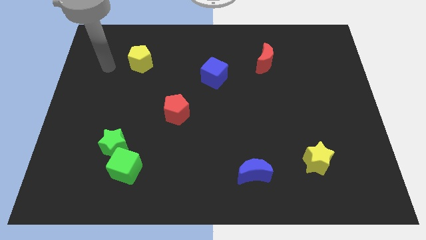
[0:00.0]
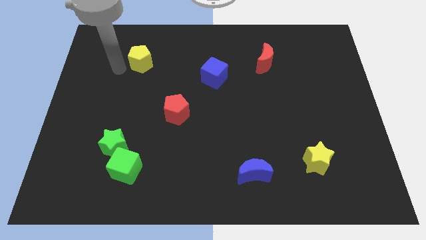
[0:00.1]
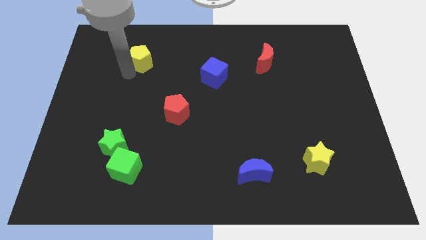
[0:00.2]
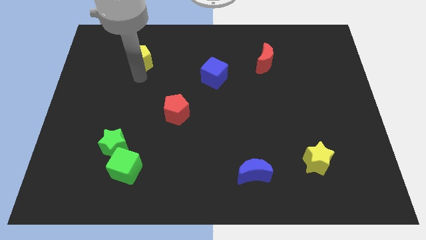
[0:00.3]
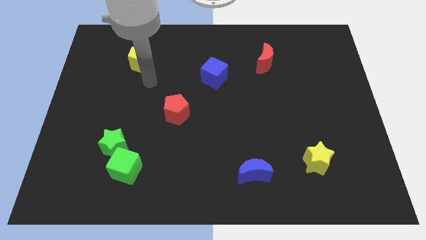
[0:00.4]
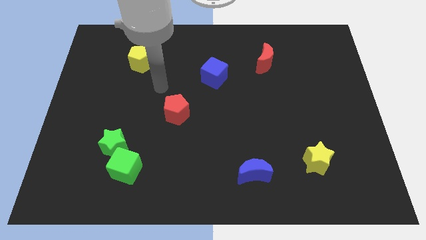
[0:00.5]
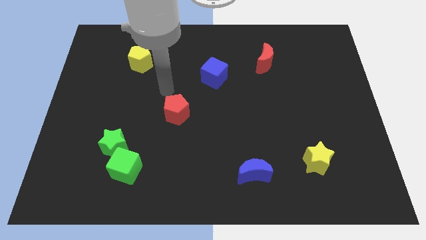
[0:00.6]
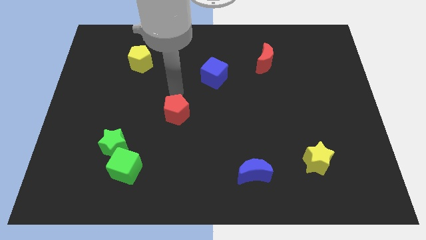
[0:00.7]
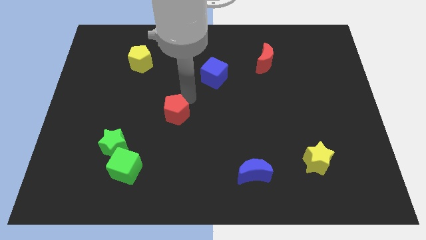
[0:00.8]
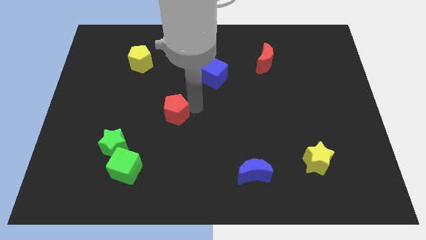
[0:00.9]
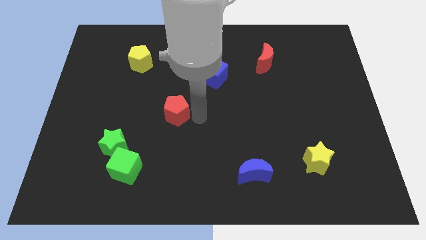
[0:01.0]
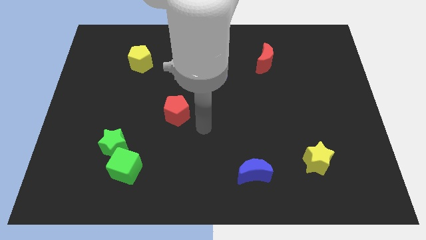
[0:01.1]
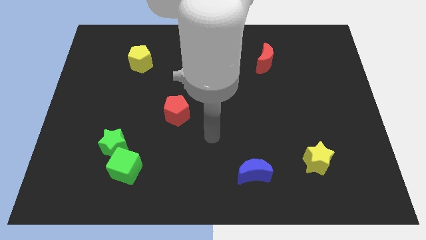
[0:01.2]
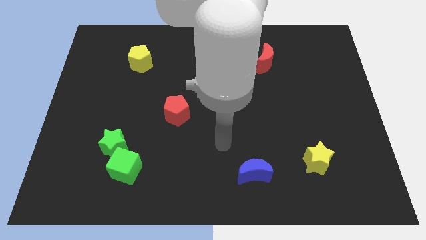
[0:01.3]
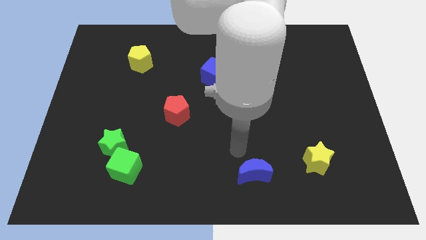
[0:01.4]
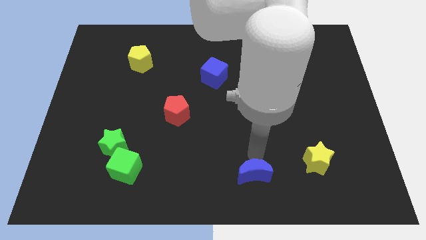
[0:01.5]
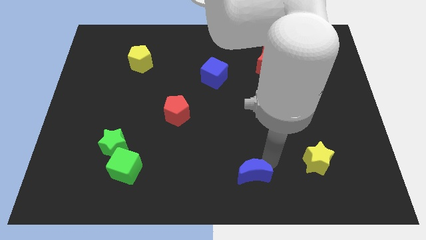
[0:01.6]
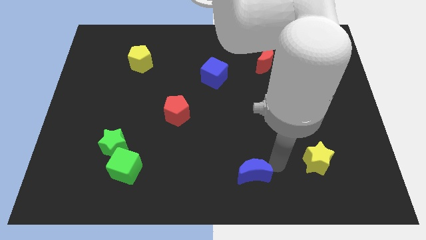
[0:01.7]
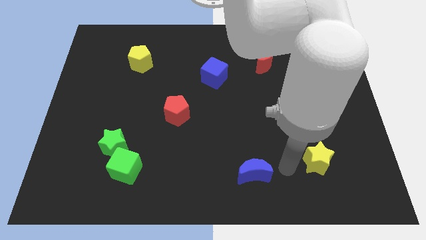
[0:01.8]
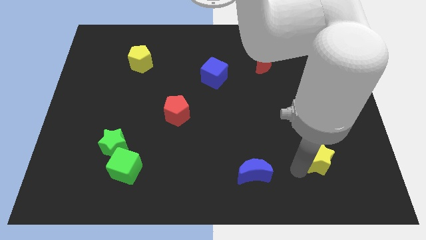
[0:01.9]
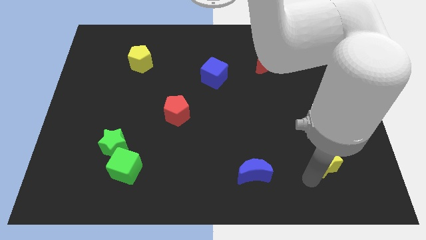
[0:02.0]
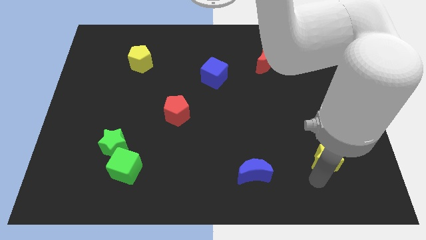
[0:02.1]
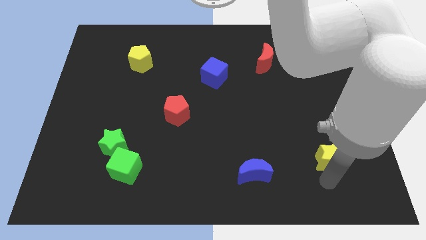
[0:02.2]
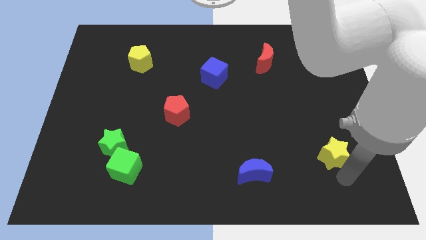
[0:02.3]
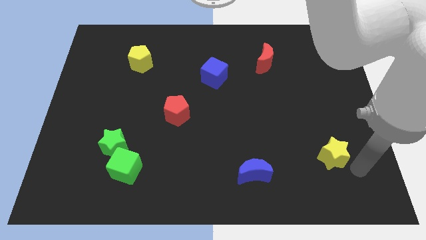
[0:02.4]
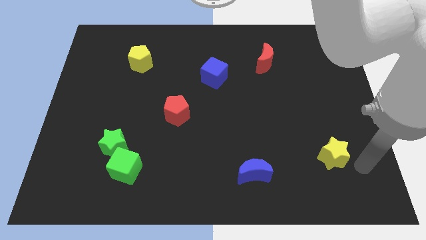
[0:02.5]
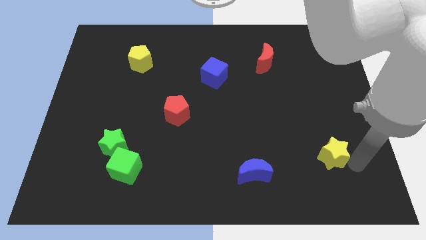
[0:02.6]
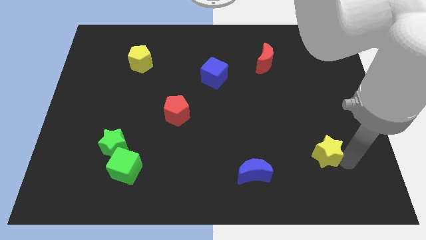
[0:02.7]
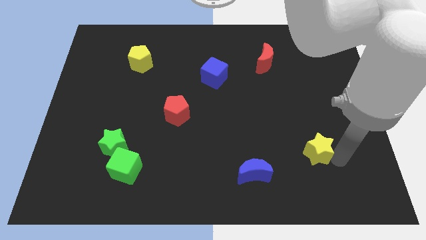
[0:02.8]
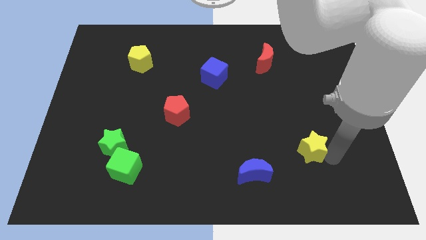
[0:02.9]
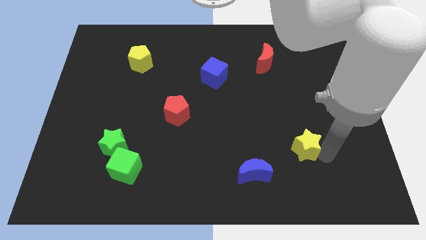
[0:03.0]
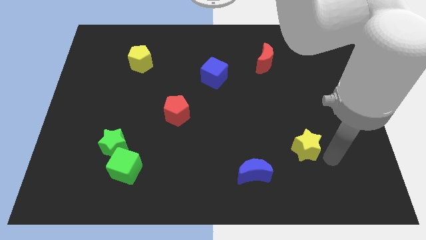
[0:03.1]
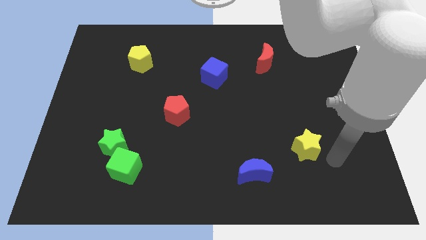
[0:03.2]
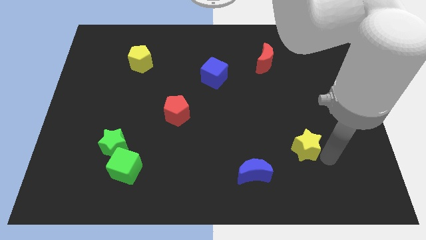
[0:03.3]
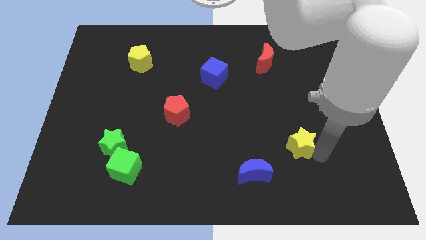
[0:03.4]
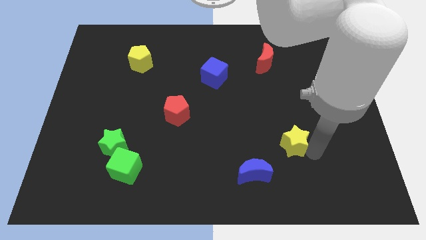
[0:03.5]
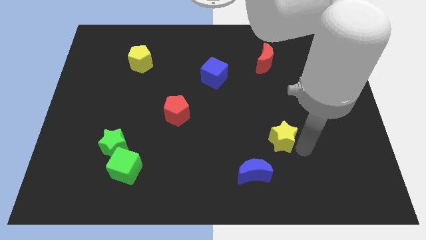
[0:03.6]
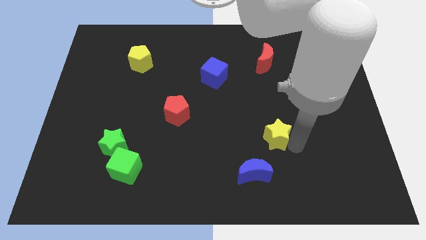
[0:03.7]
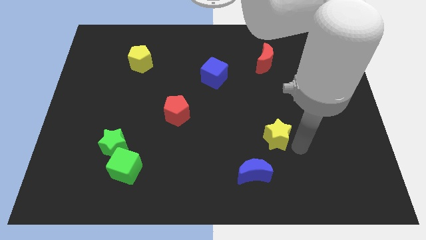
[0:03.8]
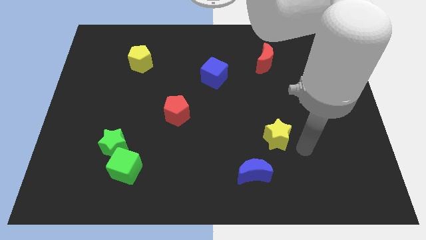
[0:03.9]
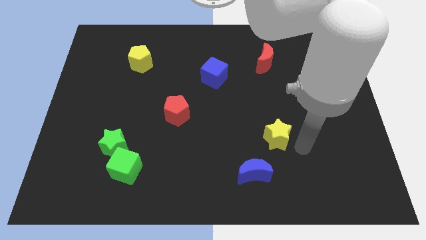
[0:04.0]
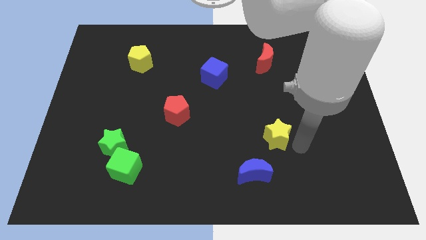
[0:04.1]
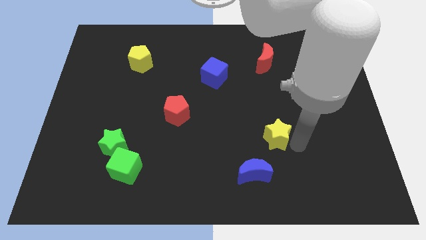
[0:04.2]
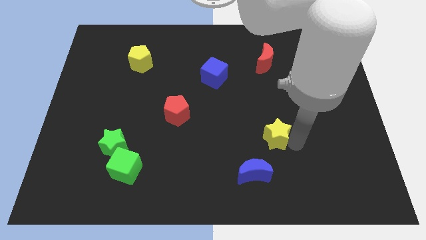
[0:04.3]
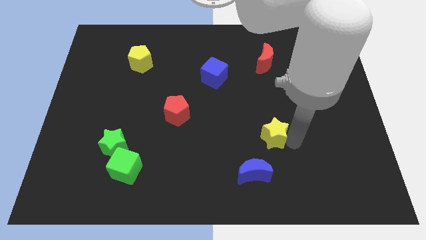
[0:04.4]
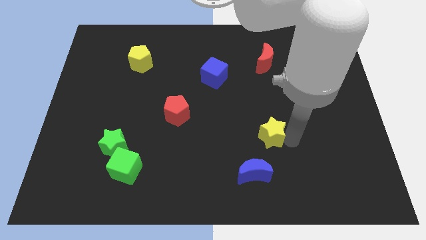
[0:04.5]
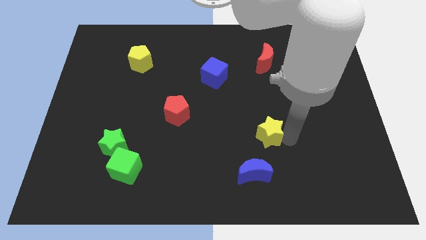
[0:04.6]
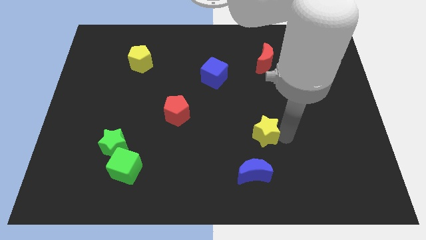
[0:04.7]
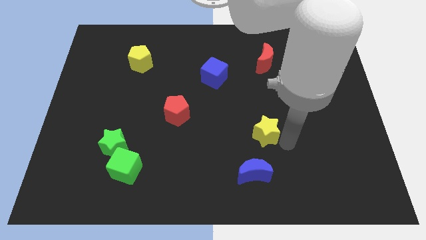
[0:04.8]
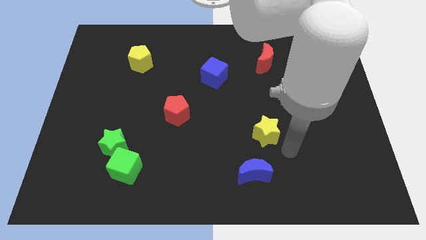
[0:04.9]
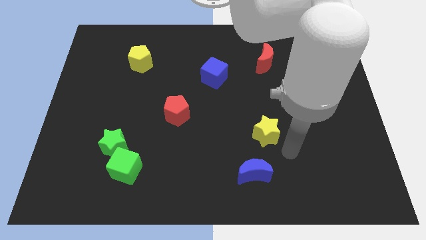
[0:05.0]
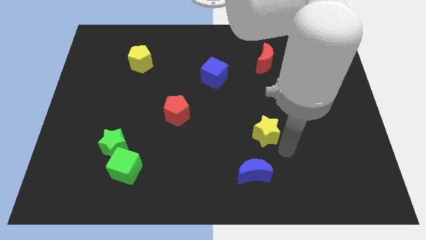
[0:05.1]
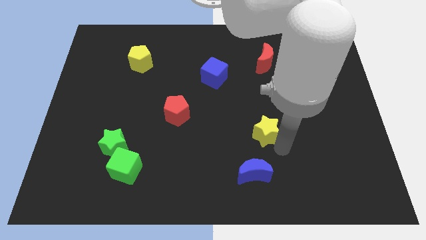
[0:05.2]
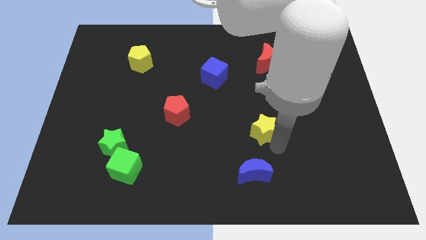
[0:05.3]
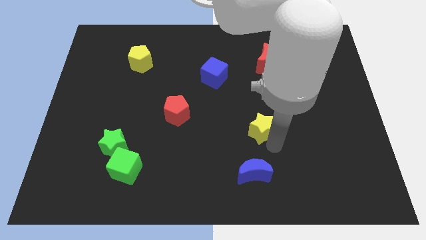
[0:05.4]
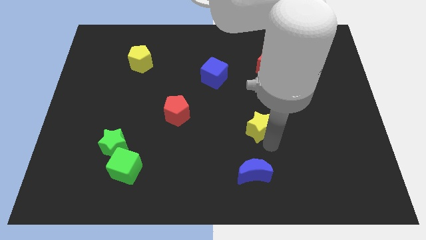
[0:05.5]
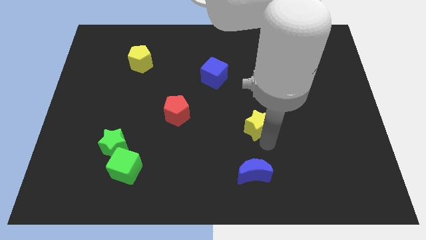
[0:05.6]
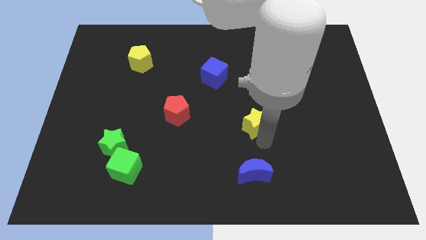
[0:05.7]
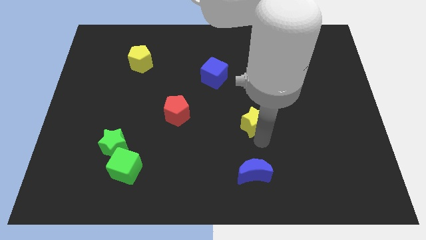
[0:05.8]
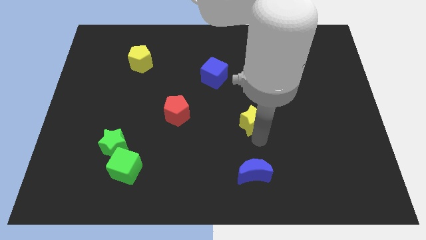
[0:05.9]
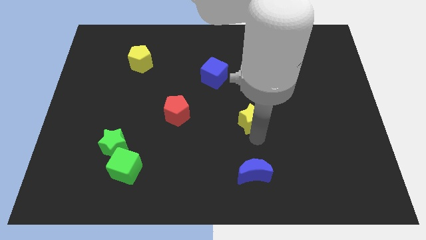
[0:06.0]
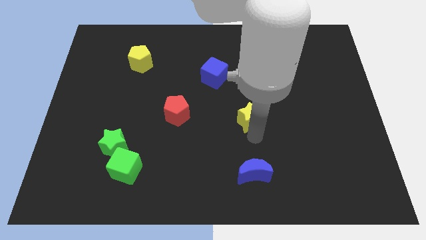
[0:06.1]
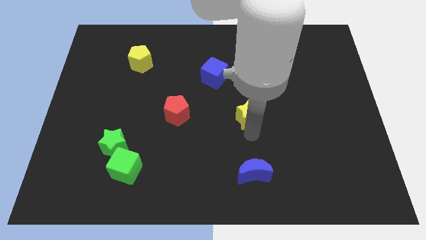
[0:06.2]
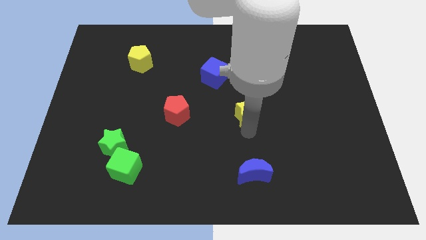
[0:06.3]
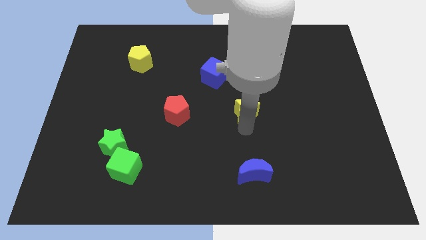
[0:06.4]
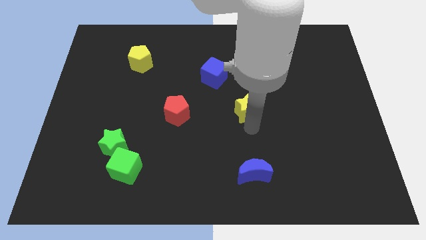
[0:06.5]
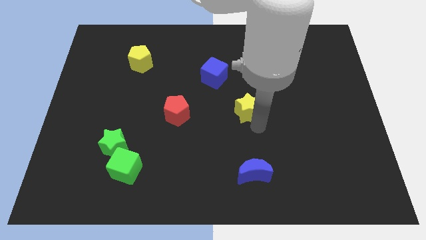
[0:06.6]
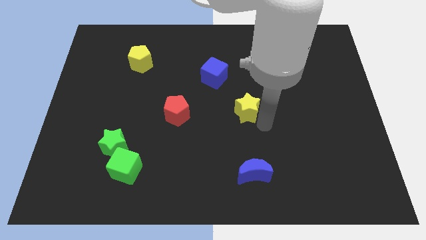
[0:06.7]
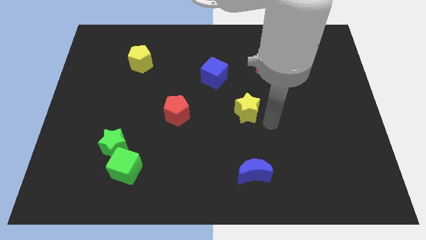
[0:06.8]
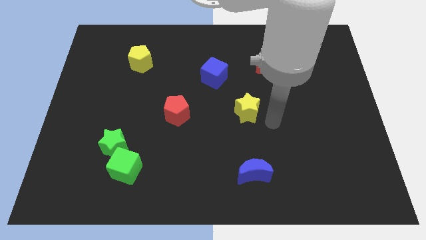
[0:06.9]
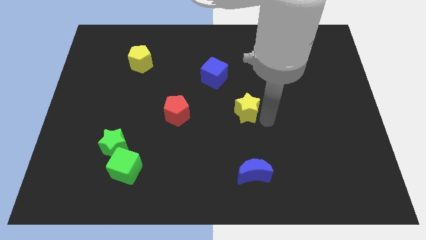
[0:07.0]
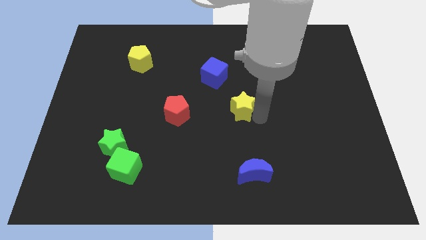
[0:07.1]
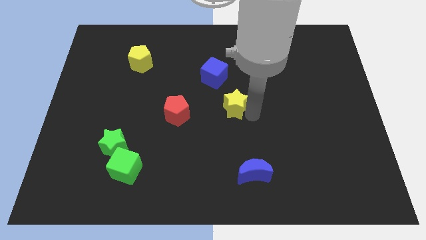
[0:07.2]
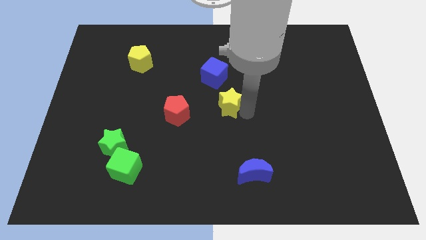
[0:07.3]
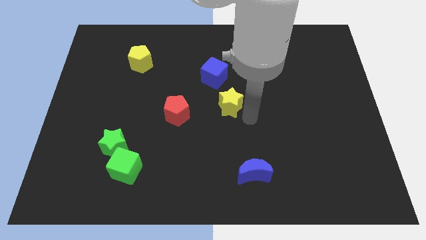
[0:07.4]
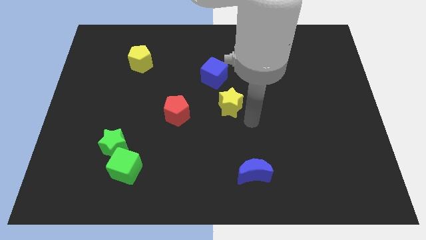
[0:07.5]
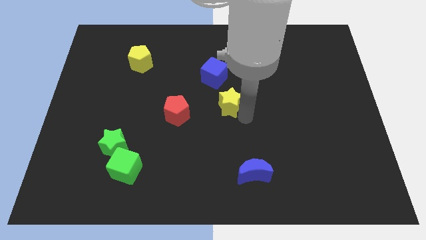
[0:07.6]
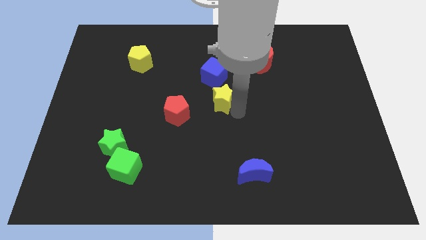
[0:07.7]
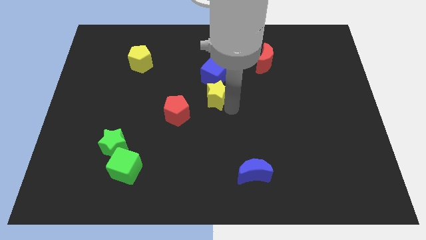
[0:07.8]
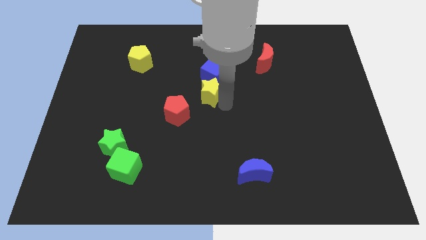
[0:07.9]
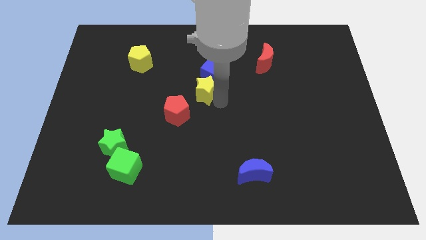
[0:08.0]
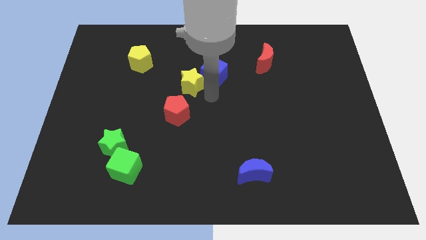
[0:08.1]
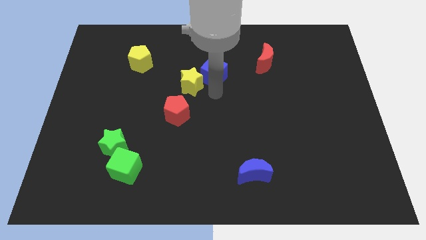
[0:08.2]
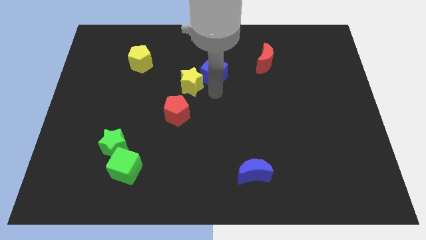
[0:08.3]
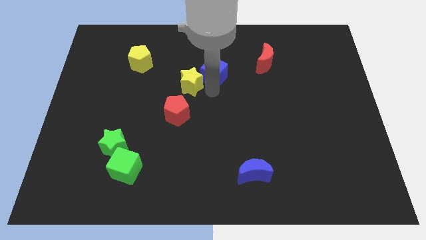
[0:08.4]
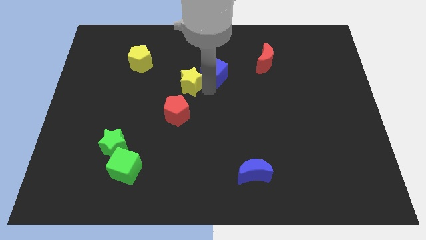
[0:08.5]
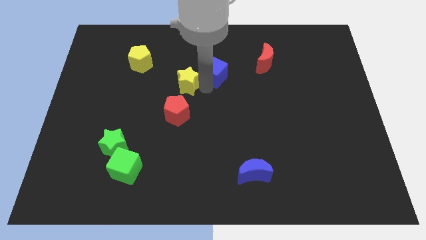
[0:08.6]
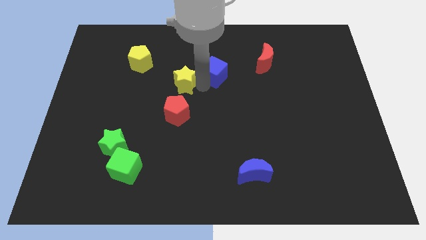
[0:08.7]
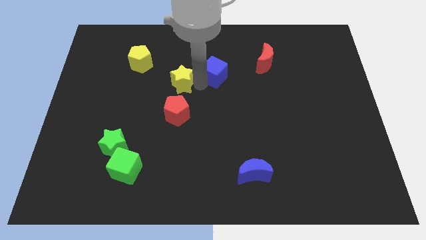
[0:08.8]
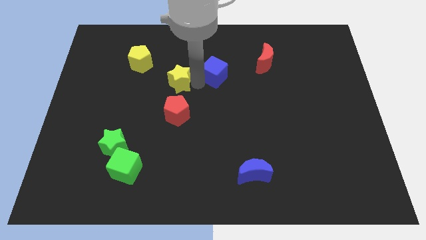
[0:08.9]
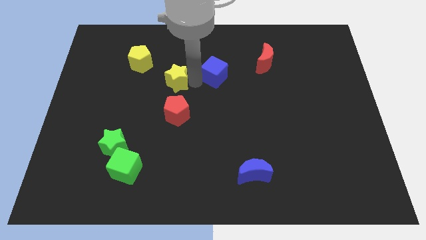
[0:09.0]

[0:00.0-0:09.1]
put the yellow star to the bottom right side of the yellow pentagon
